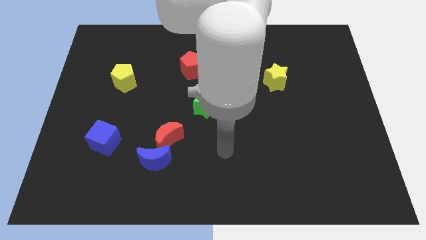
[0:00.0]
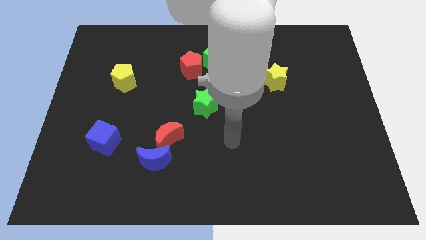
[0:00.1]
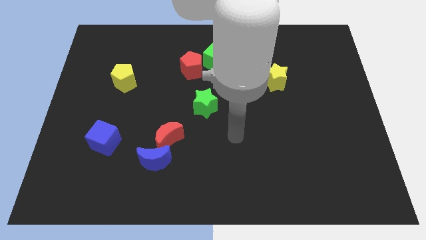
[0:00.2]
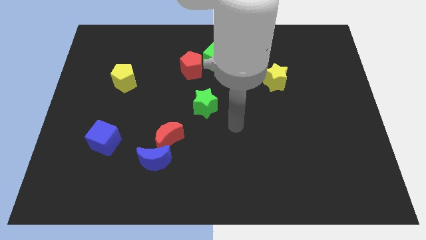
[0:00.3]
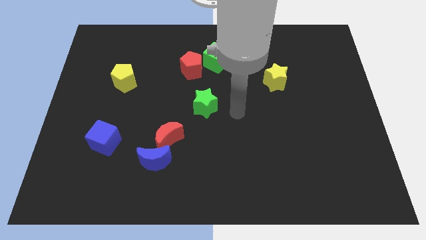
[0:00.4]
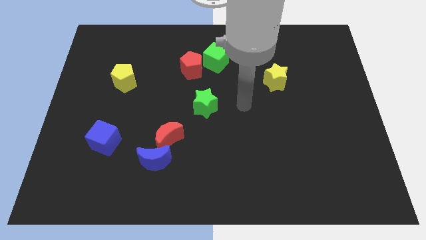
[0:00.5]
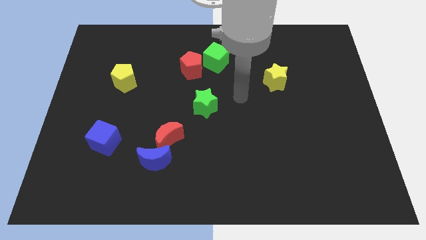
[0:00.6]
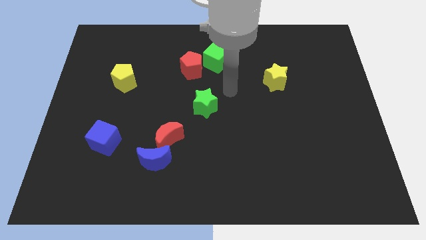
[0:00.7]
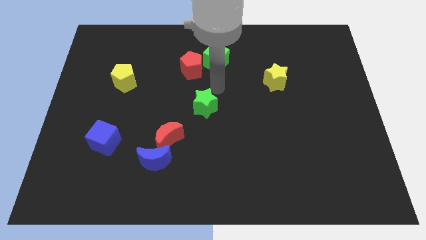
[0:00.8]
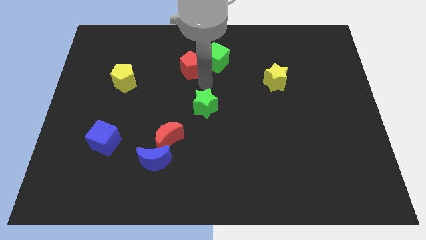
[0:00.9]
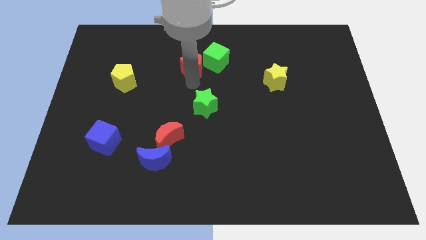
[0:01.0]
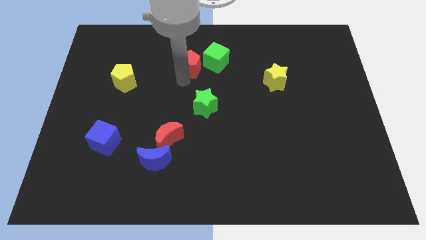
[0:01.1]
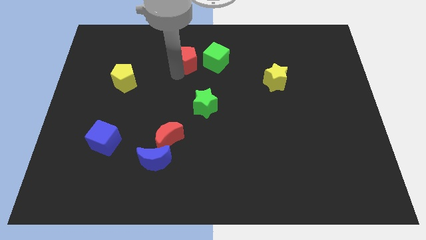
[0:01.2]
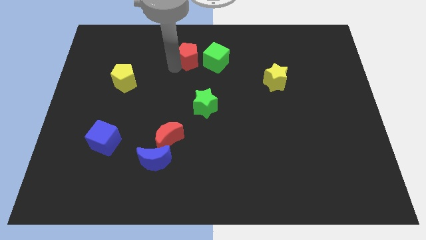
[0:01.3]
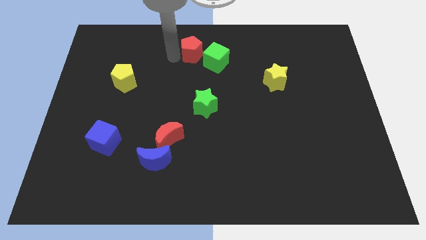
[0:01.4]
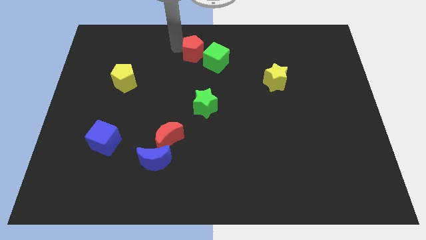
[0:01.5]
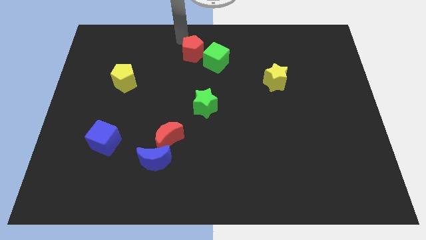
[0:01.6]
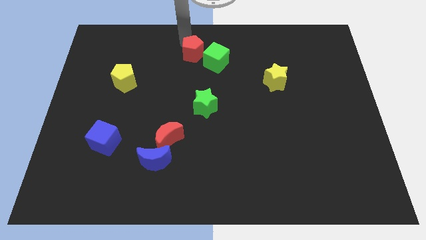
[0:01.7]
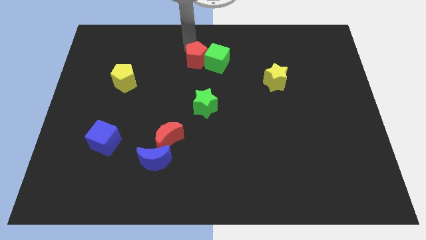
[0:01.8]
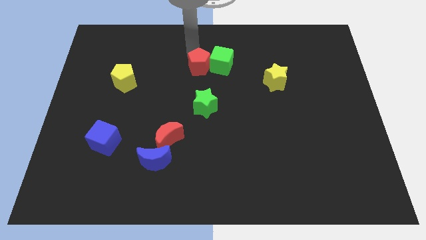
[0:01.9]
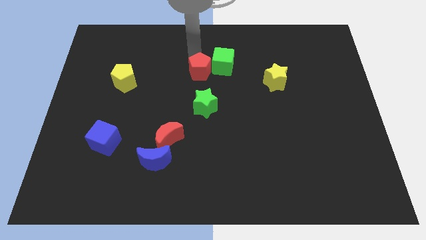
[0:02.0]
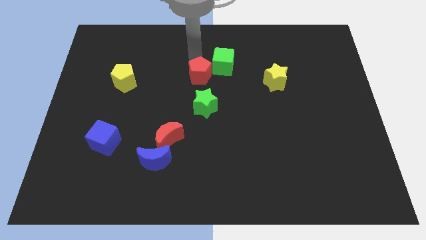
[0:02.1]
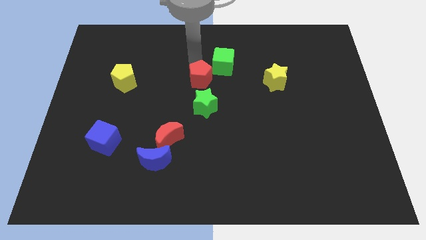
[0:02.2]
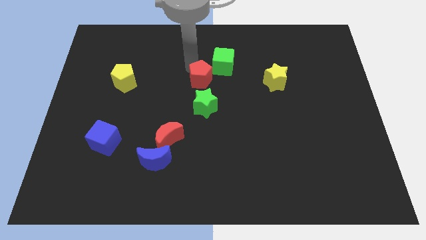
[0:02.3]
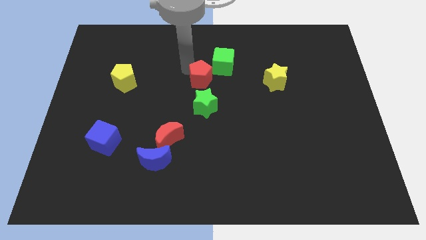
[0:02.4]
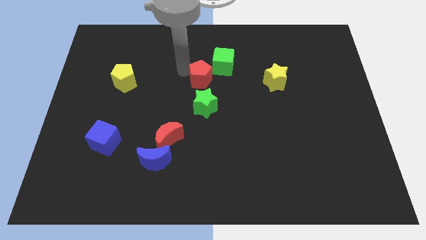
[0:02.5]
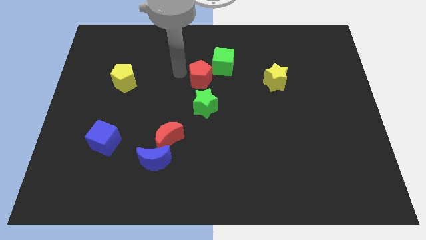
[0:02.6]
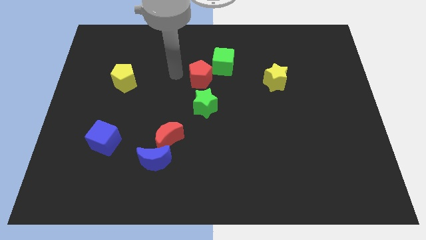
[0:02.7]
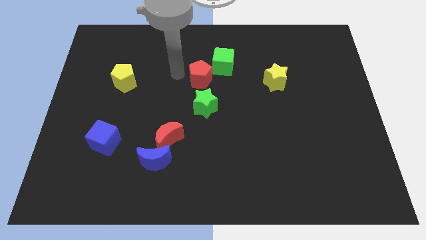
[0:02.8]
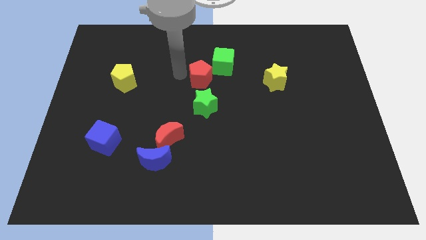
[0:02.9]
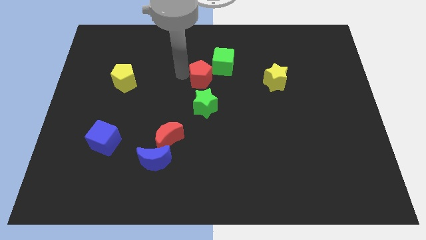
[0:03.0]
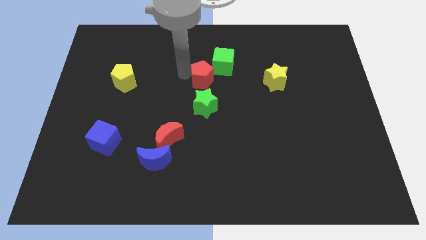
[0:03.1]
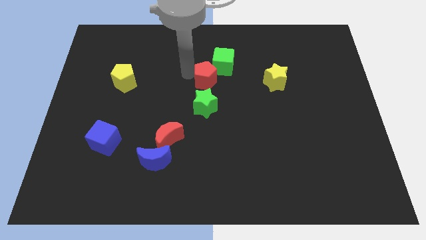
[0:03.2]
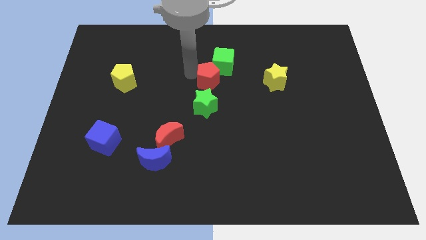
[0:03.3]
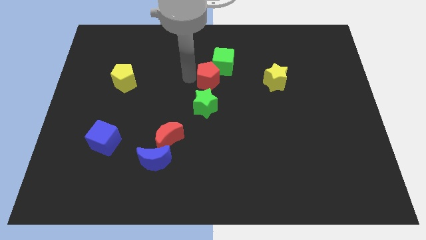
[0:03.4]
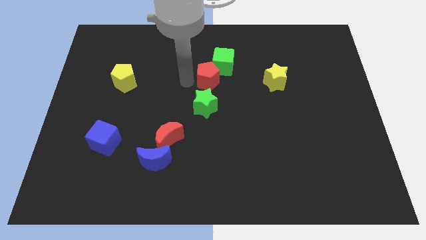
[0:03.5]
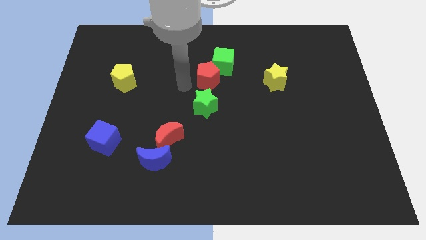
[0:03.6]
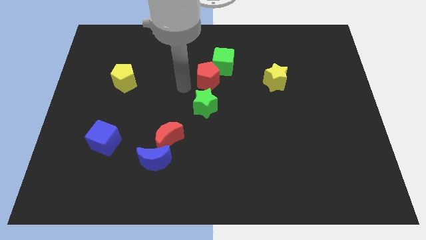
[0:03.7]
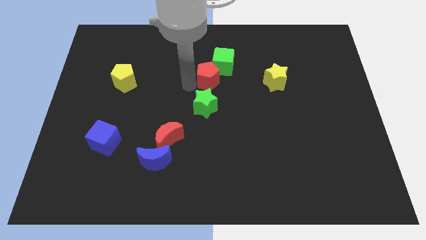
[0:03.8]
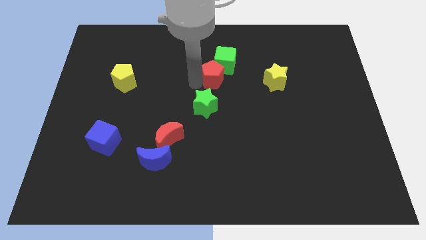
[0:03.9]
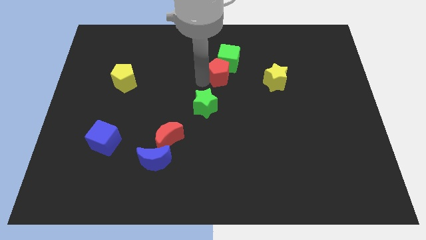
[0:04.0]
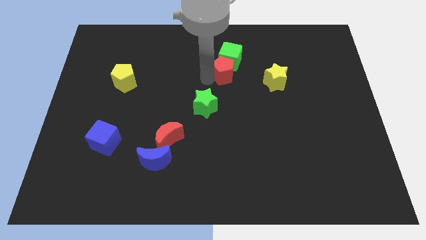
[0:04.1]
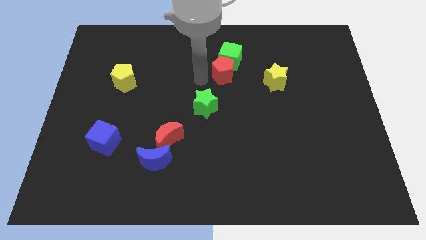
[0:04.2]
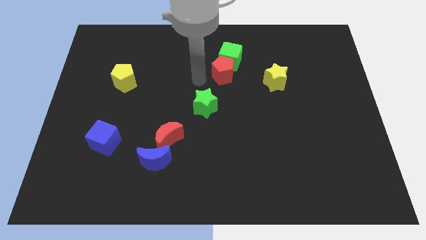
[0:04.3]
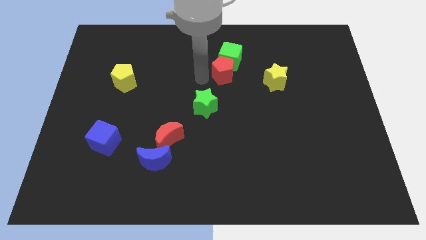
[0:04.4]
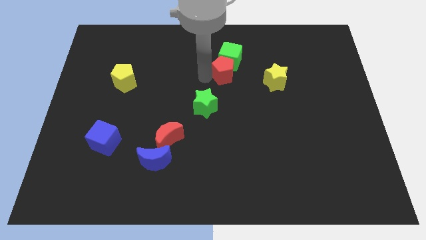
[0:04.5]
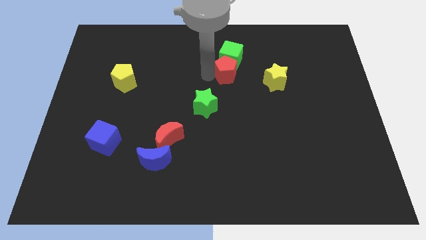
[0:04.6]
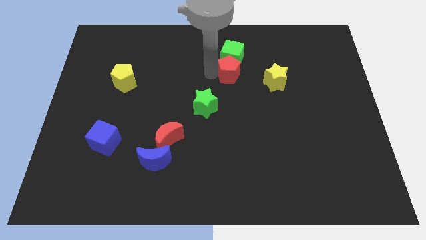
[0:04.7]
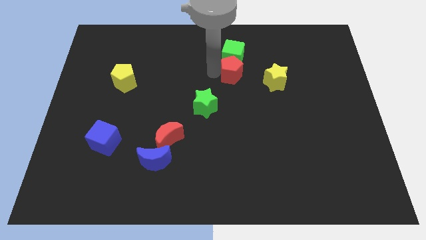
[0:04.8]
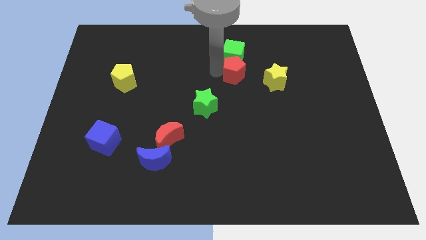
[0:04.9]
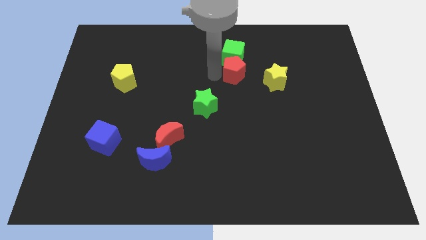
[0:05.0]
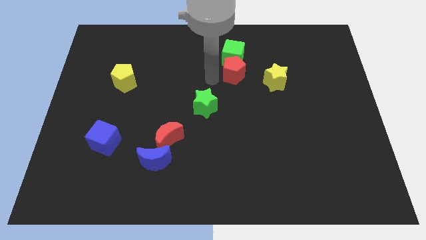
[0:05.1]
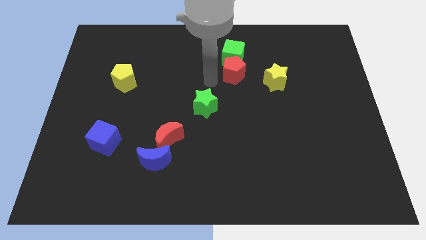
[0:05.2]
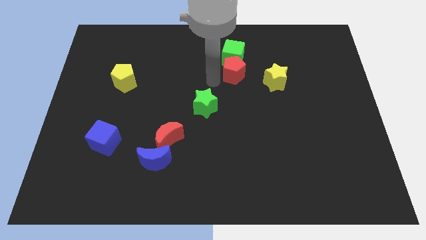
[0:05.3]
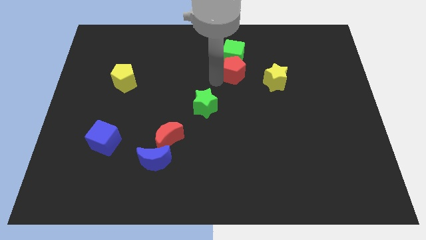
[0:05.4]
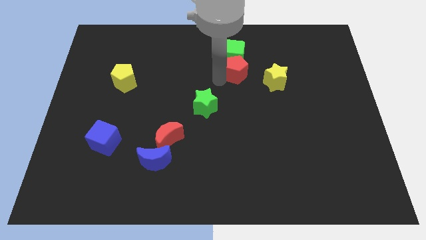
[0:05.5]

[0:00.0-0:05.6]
slide the red pentagon to the top left of the yellow star

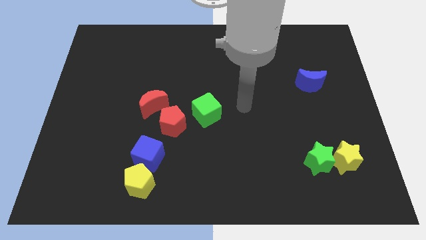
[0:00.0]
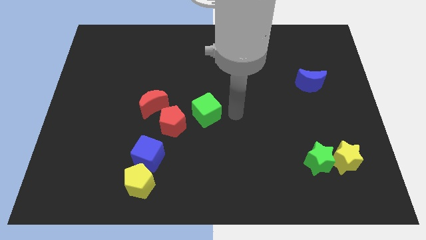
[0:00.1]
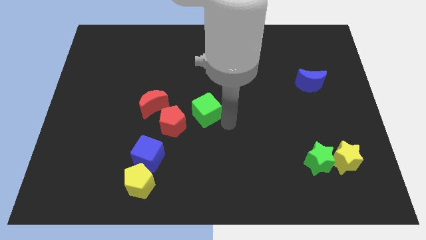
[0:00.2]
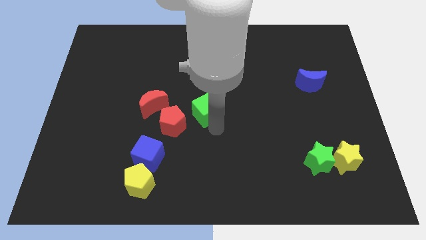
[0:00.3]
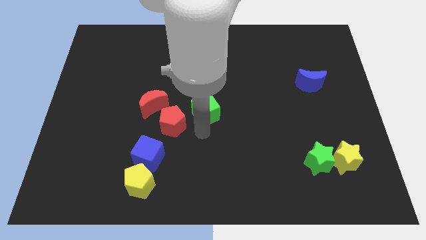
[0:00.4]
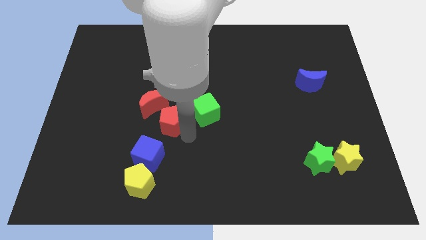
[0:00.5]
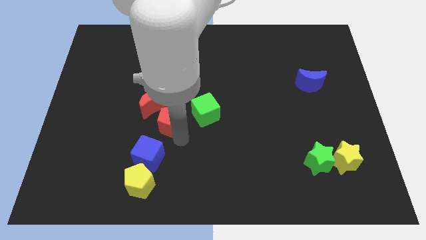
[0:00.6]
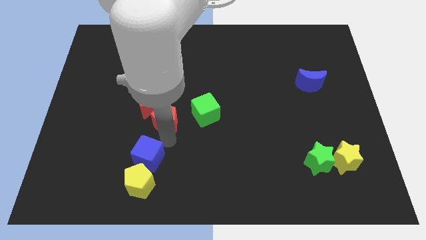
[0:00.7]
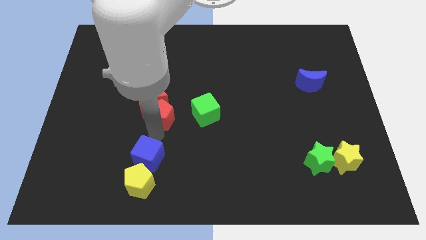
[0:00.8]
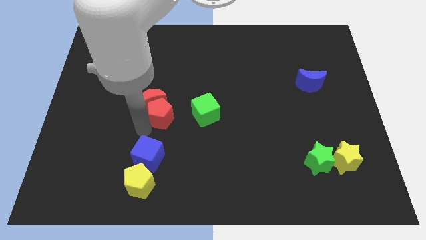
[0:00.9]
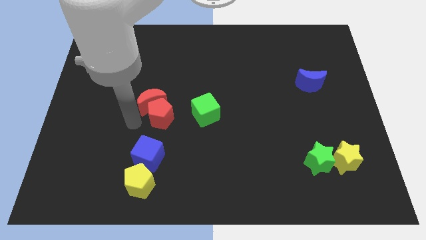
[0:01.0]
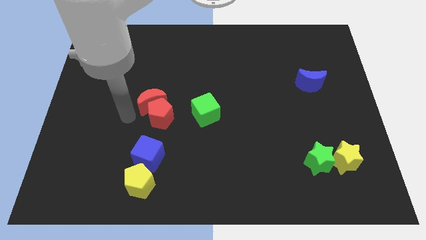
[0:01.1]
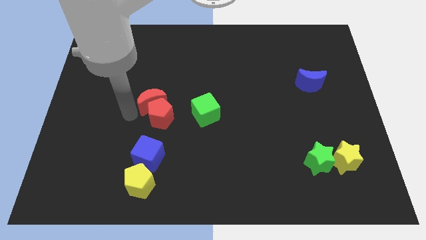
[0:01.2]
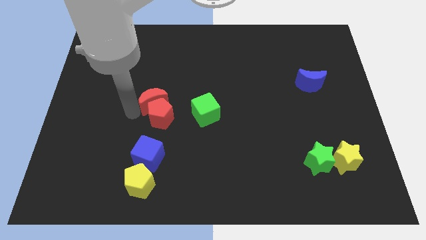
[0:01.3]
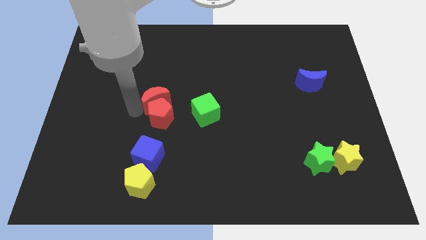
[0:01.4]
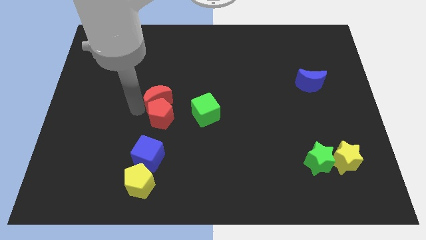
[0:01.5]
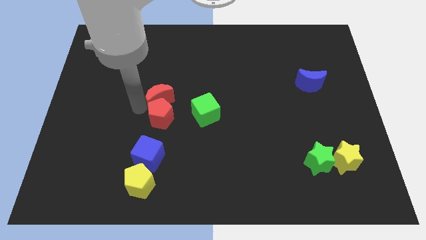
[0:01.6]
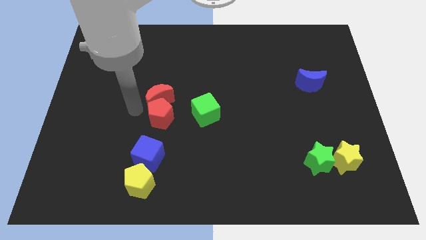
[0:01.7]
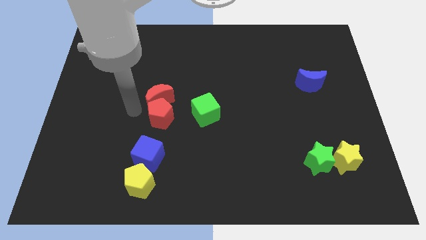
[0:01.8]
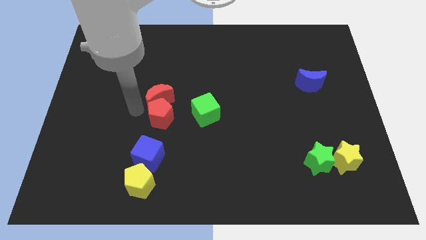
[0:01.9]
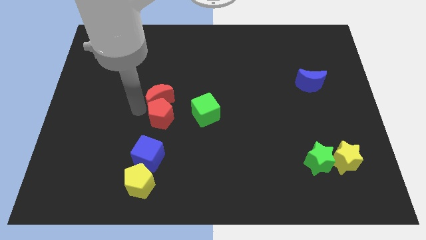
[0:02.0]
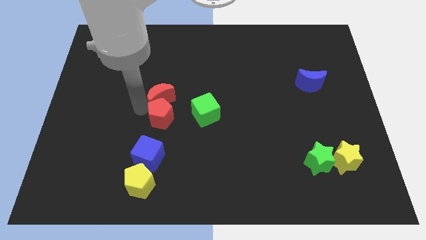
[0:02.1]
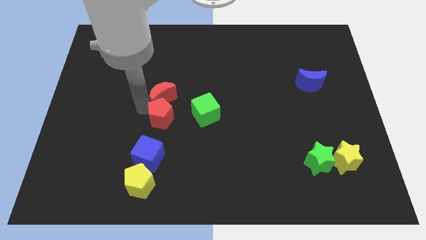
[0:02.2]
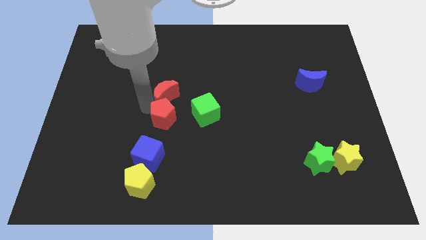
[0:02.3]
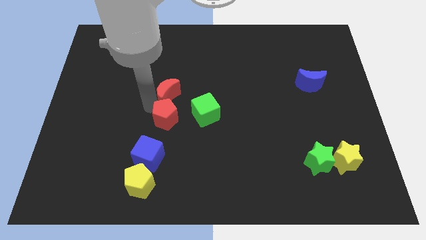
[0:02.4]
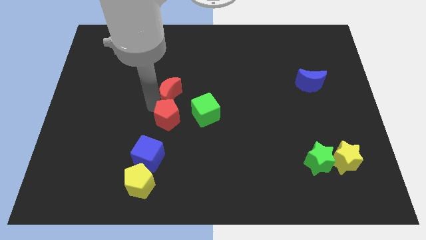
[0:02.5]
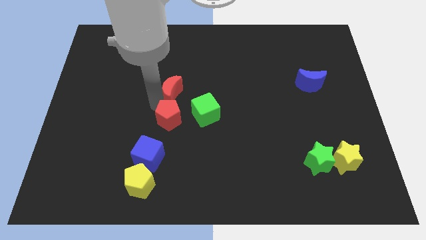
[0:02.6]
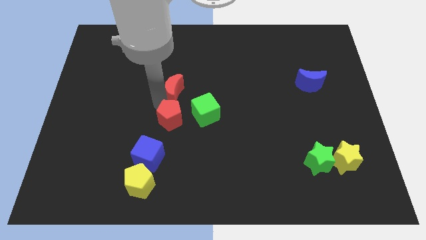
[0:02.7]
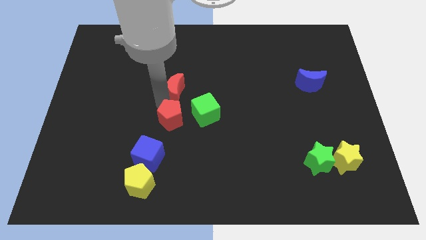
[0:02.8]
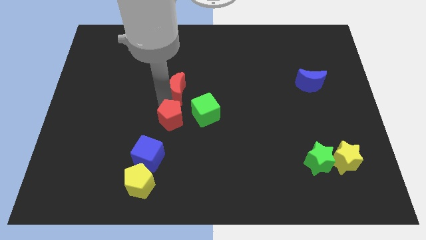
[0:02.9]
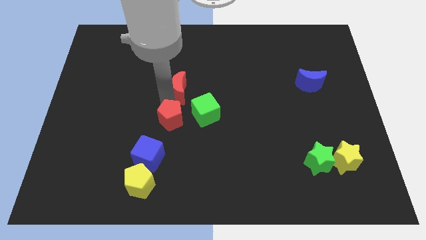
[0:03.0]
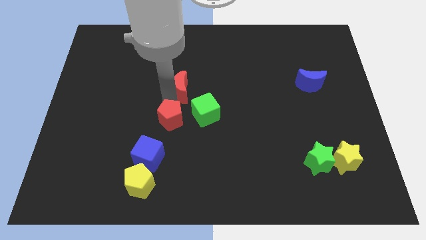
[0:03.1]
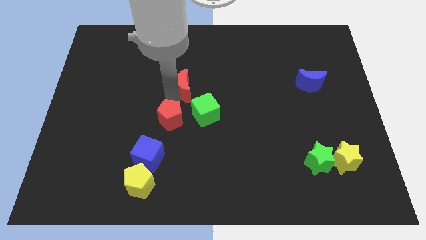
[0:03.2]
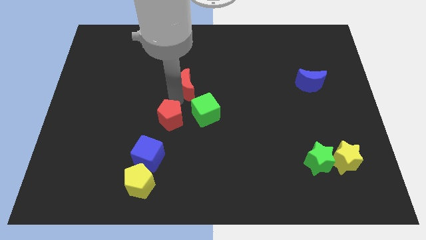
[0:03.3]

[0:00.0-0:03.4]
push the red moon above the green cube
